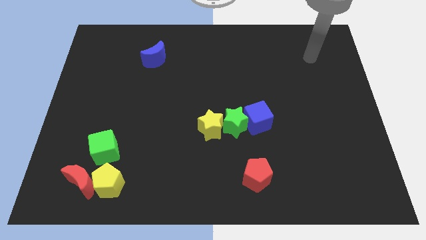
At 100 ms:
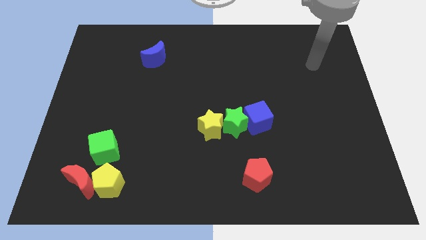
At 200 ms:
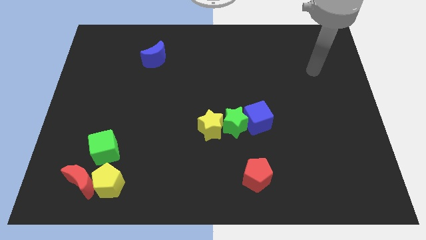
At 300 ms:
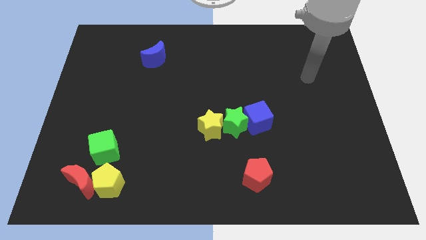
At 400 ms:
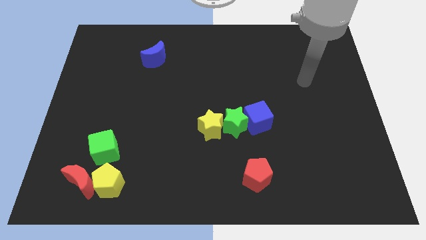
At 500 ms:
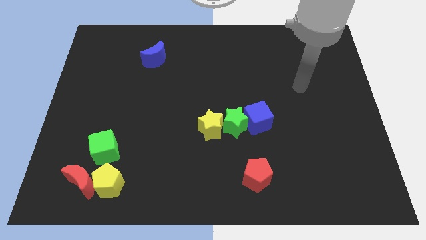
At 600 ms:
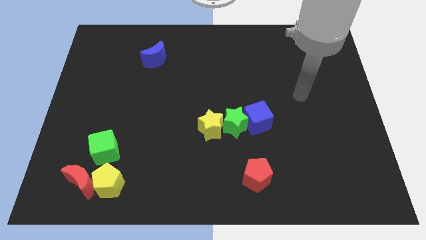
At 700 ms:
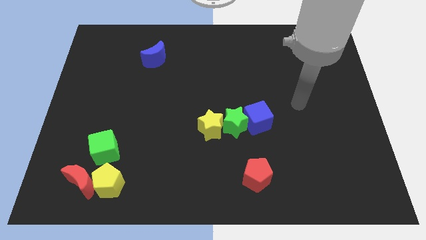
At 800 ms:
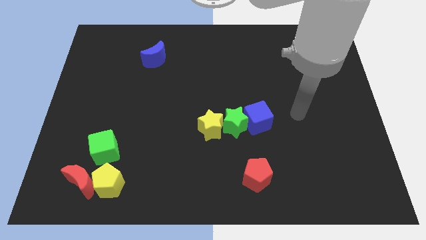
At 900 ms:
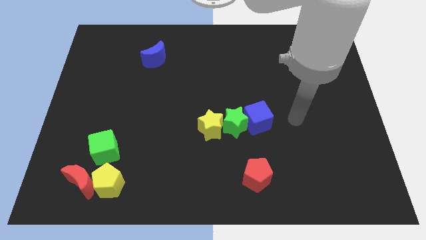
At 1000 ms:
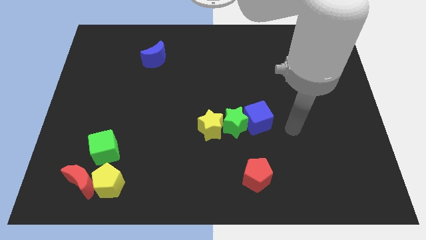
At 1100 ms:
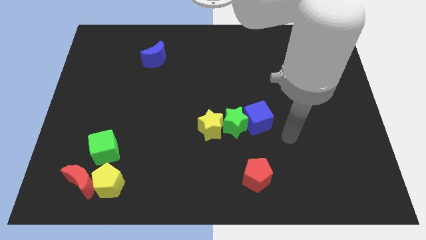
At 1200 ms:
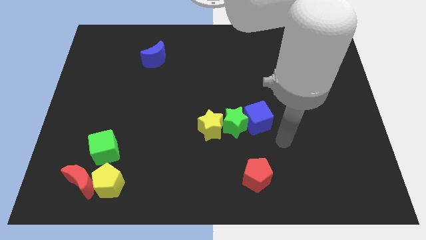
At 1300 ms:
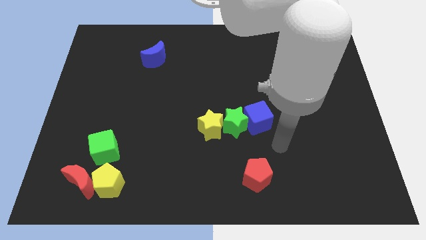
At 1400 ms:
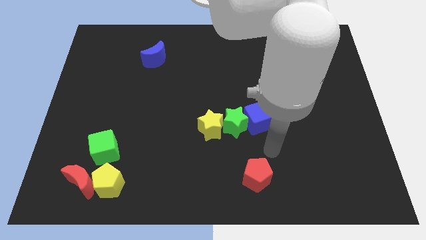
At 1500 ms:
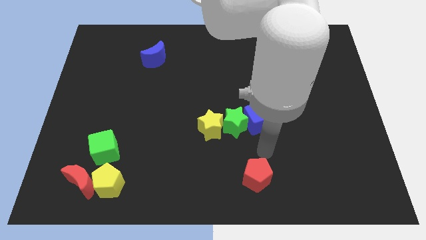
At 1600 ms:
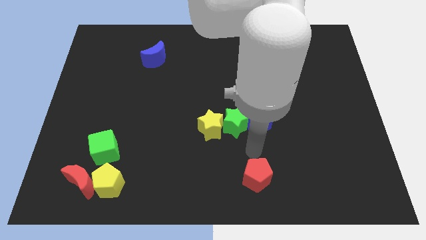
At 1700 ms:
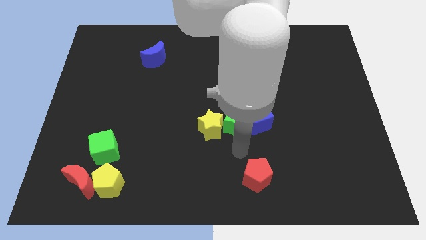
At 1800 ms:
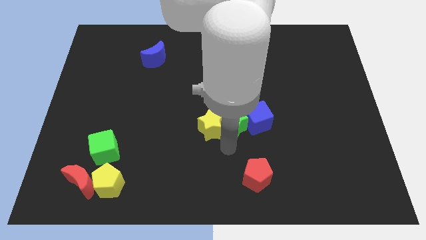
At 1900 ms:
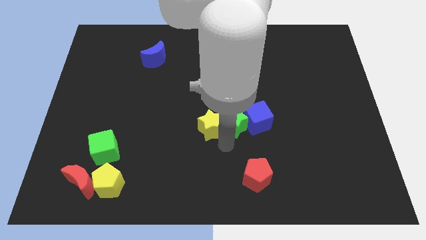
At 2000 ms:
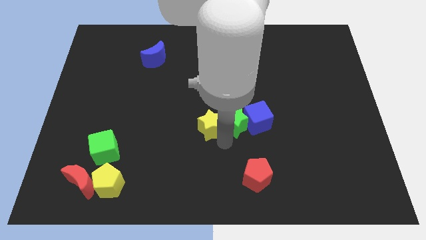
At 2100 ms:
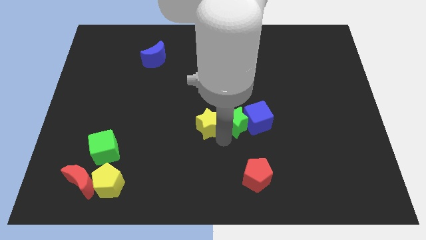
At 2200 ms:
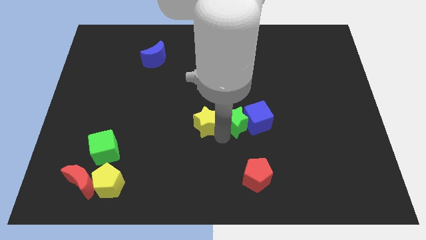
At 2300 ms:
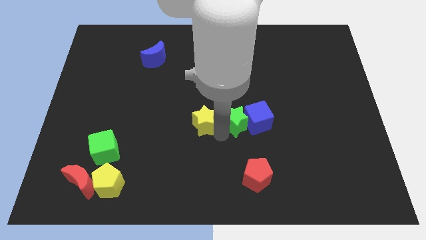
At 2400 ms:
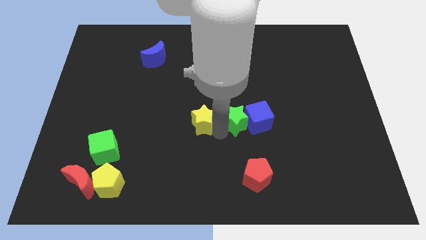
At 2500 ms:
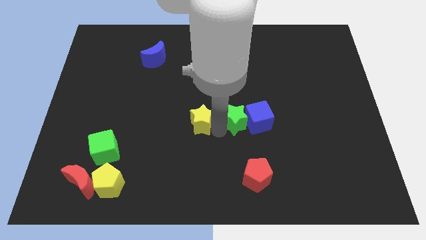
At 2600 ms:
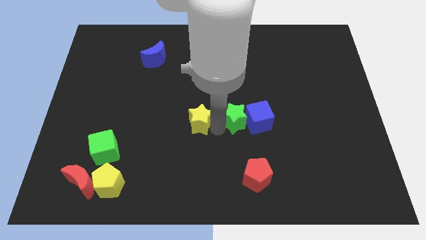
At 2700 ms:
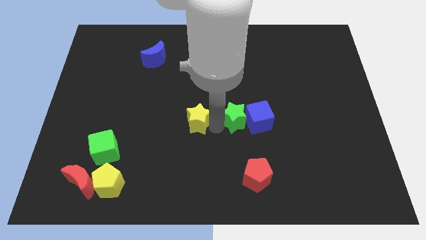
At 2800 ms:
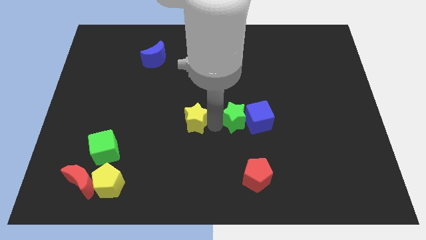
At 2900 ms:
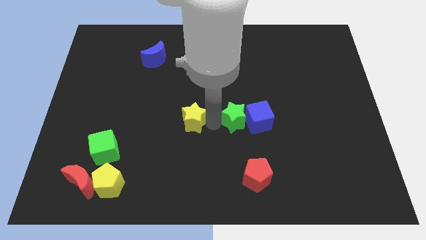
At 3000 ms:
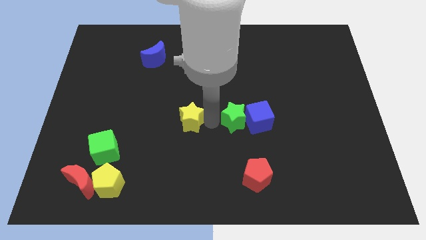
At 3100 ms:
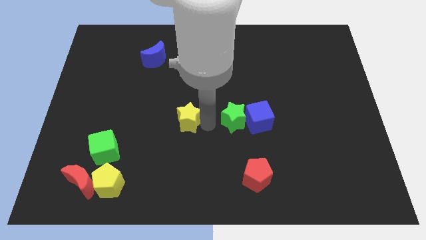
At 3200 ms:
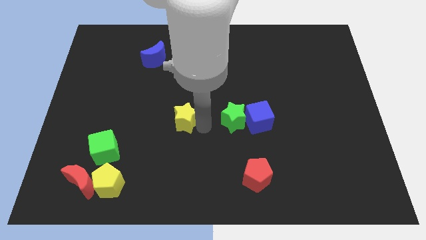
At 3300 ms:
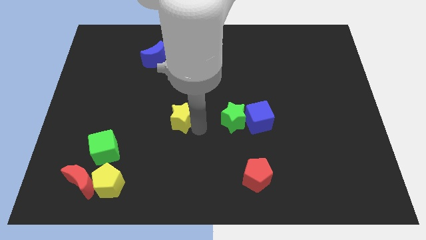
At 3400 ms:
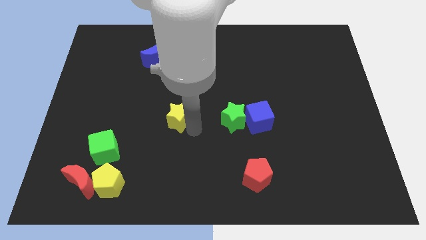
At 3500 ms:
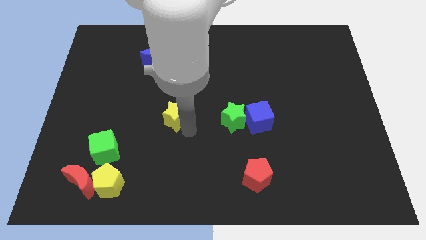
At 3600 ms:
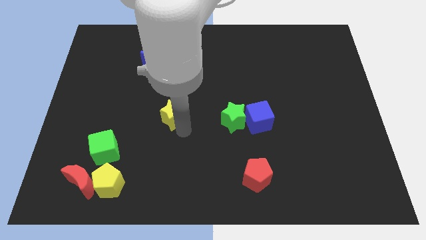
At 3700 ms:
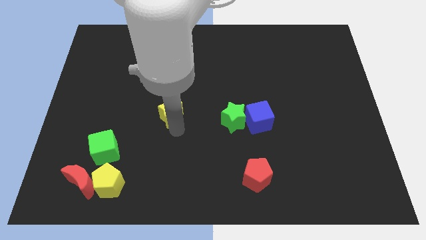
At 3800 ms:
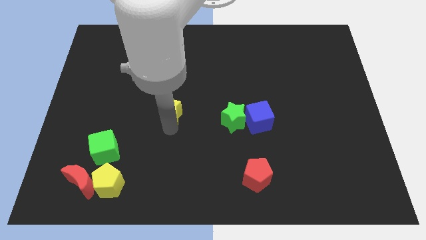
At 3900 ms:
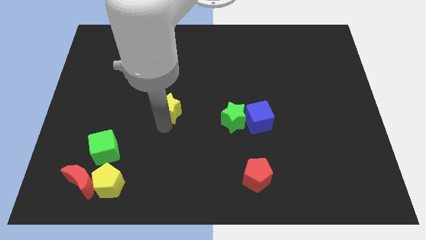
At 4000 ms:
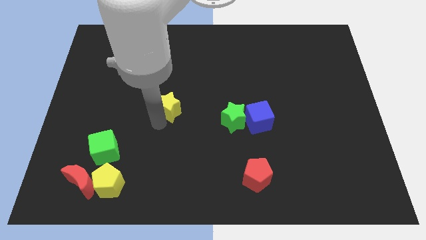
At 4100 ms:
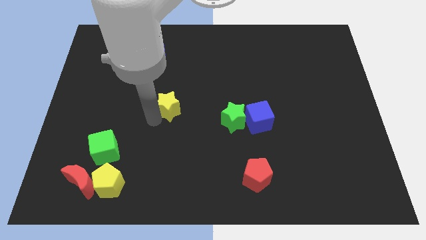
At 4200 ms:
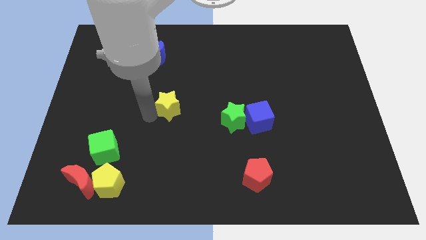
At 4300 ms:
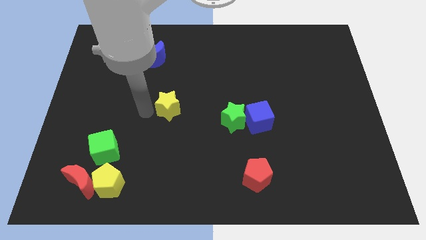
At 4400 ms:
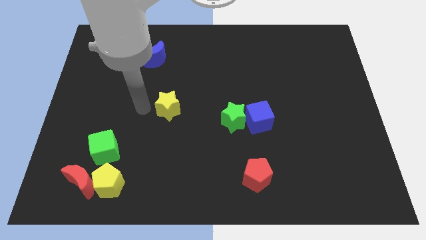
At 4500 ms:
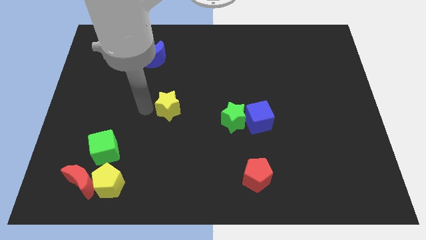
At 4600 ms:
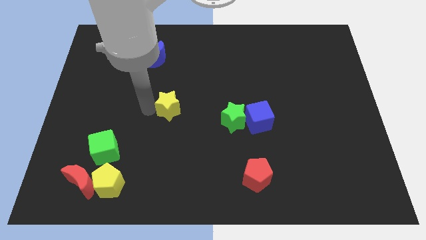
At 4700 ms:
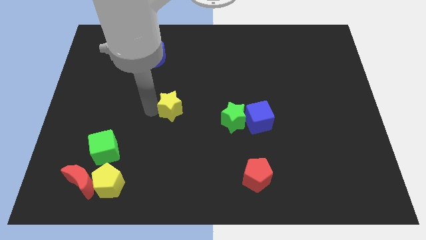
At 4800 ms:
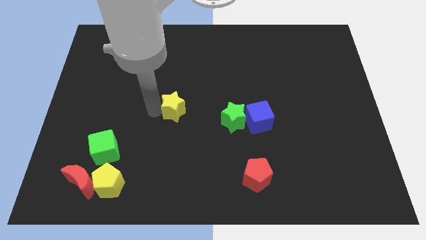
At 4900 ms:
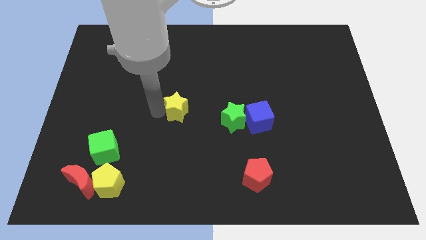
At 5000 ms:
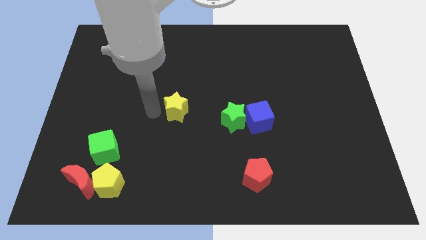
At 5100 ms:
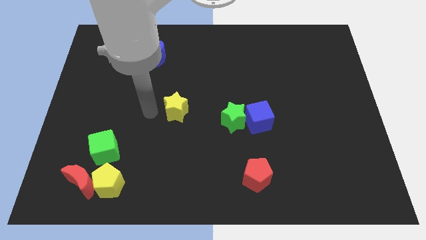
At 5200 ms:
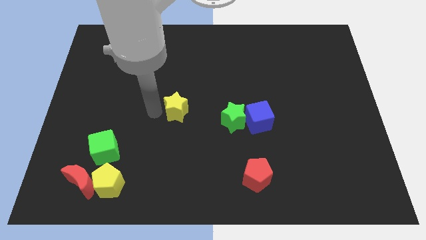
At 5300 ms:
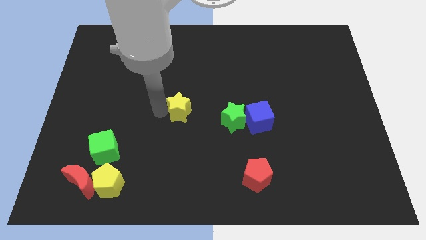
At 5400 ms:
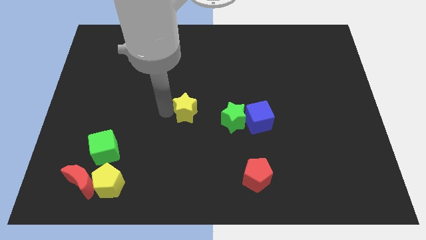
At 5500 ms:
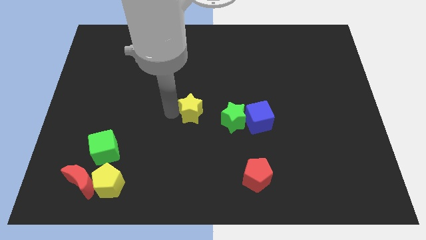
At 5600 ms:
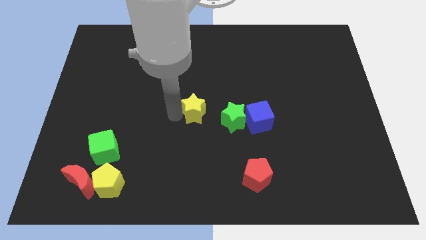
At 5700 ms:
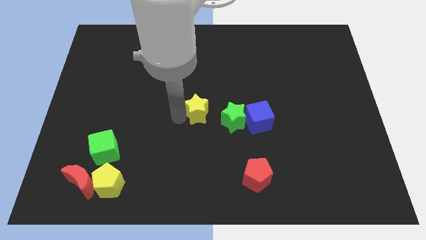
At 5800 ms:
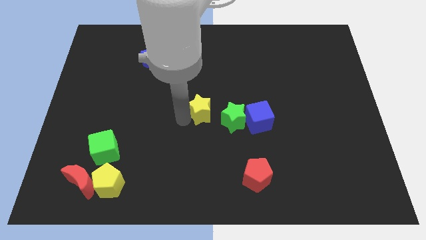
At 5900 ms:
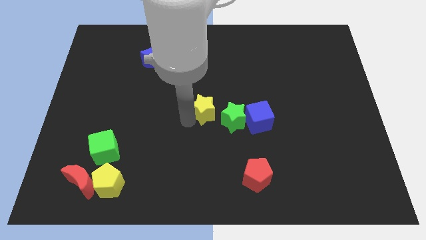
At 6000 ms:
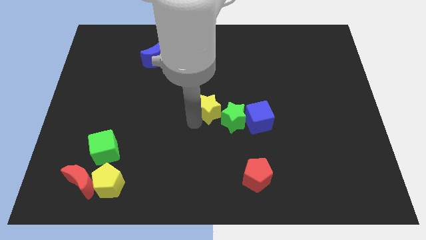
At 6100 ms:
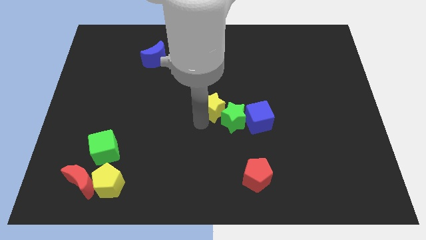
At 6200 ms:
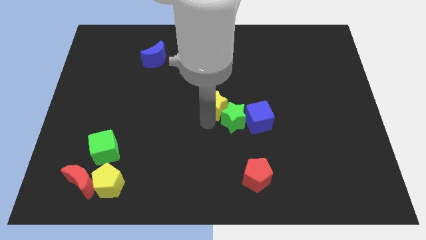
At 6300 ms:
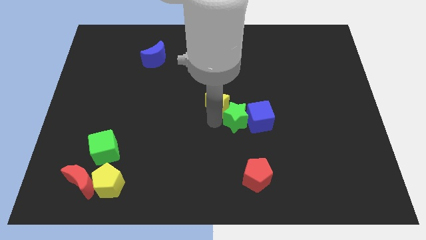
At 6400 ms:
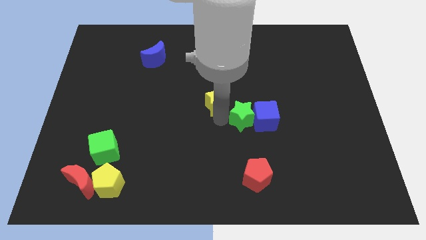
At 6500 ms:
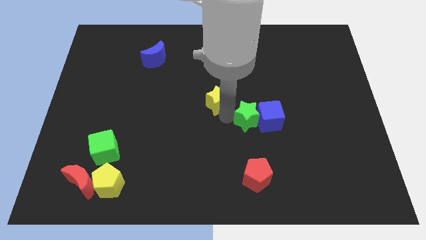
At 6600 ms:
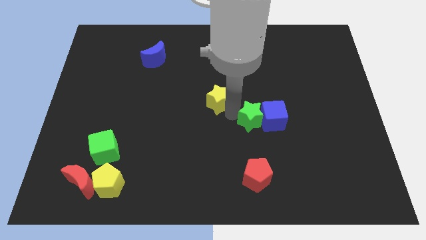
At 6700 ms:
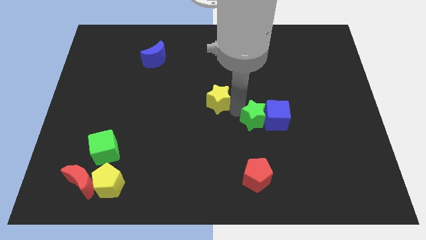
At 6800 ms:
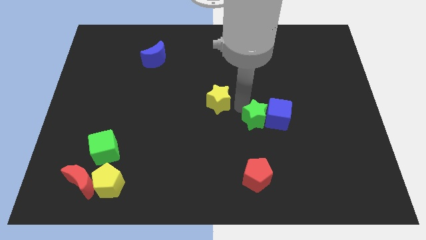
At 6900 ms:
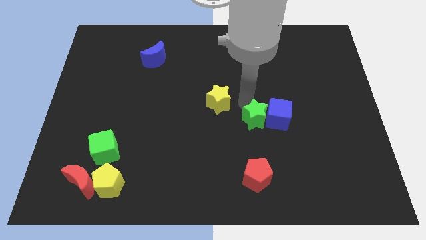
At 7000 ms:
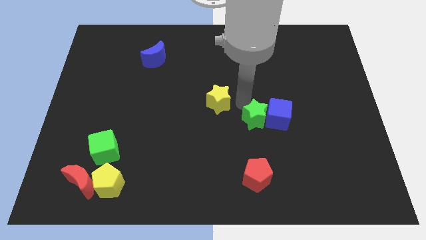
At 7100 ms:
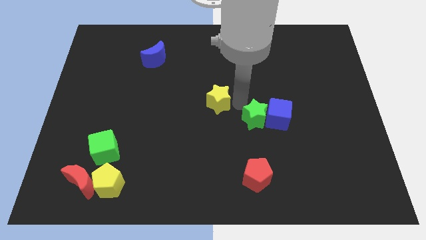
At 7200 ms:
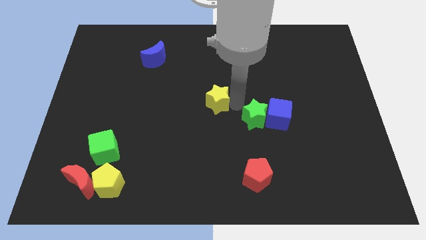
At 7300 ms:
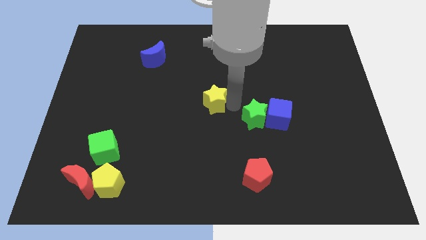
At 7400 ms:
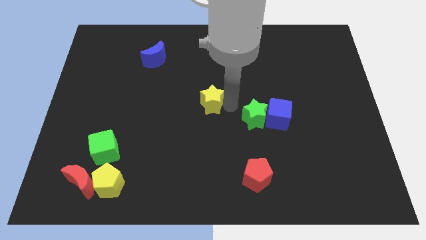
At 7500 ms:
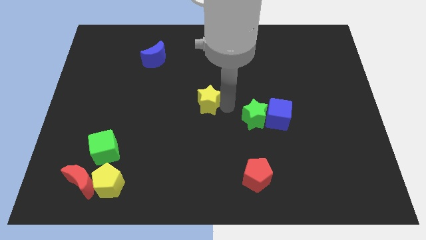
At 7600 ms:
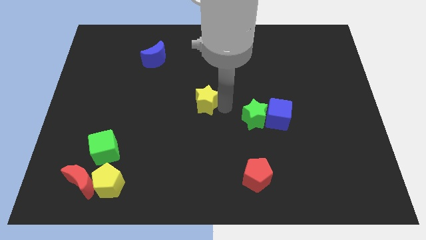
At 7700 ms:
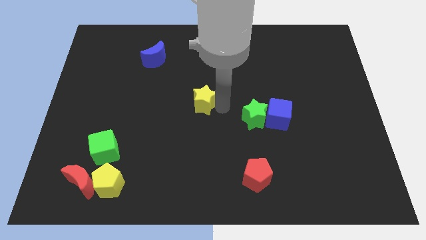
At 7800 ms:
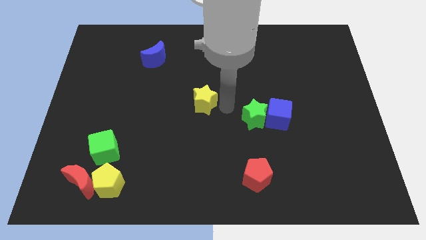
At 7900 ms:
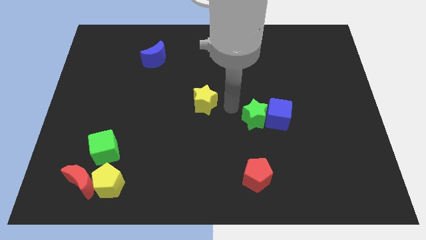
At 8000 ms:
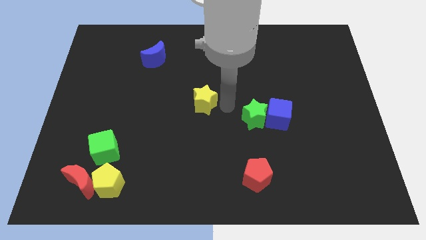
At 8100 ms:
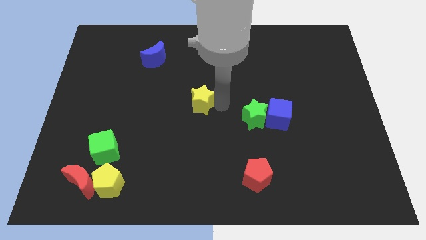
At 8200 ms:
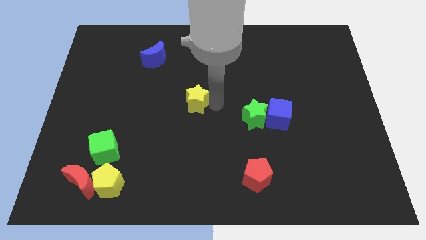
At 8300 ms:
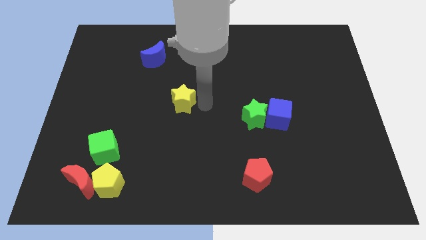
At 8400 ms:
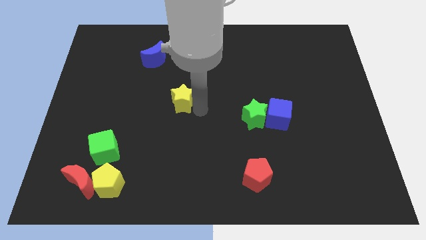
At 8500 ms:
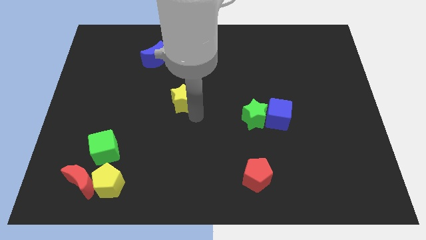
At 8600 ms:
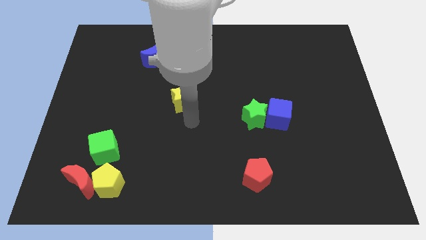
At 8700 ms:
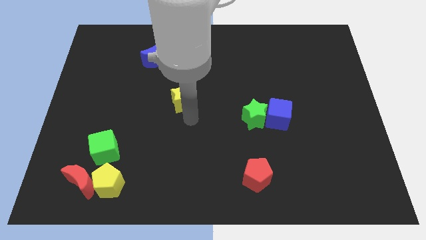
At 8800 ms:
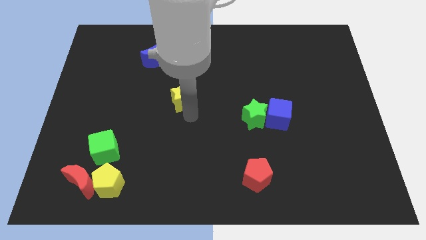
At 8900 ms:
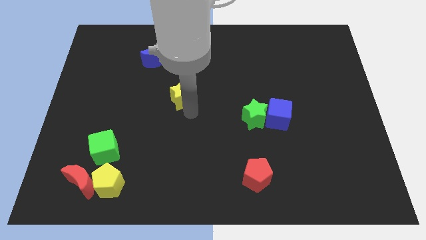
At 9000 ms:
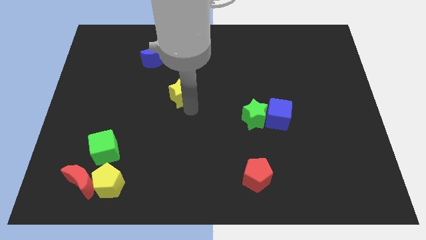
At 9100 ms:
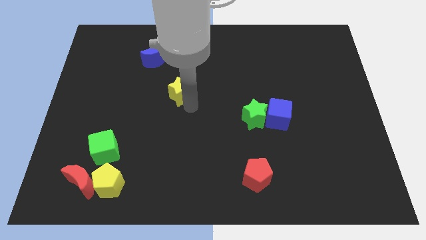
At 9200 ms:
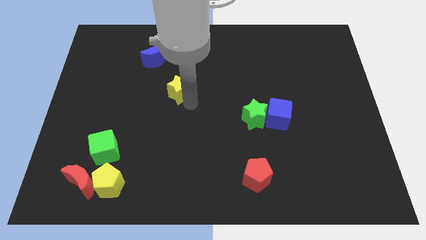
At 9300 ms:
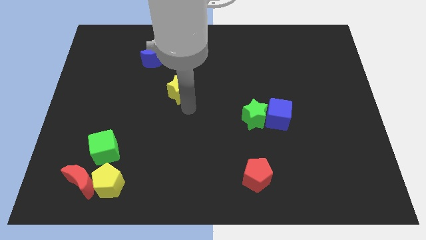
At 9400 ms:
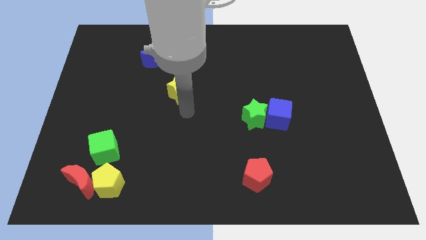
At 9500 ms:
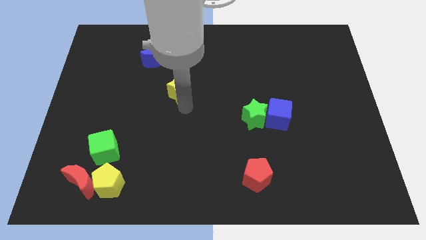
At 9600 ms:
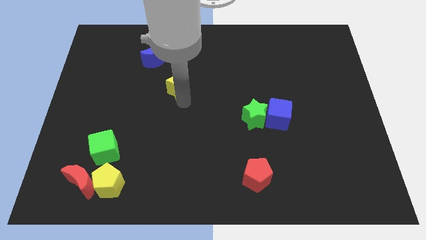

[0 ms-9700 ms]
slide the yellow star diagonally down and to the right of the blue moon
